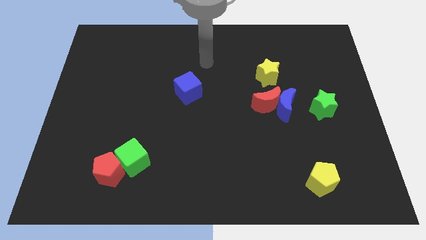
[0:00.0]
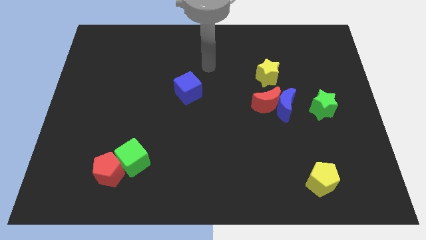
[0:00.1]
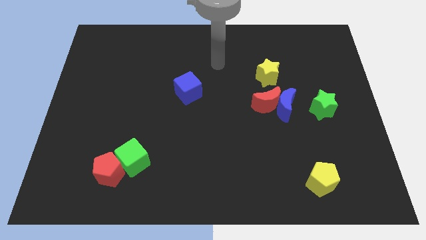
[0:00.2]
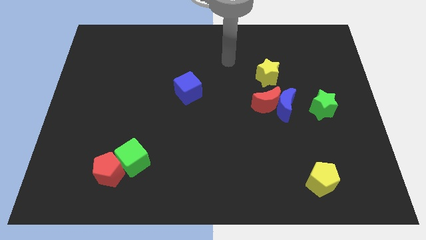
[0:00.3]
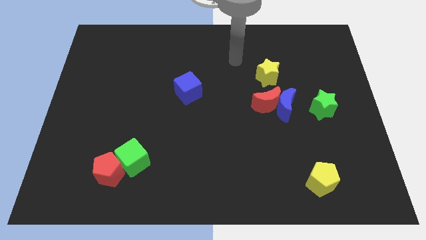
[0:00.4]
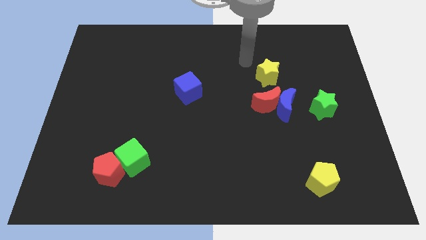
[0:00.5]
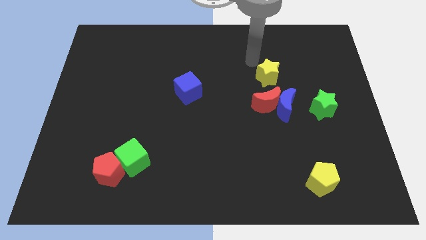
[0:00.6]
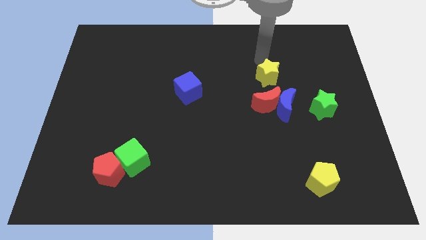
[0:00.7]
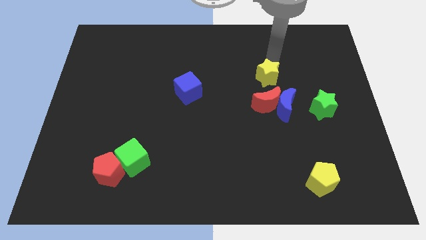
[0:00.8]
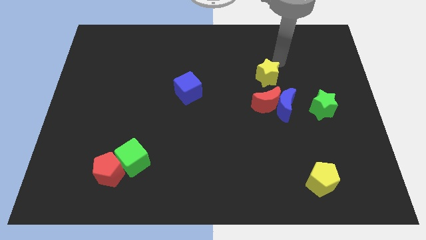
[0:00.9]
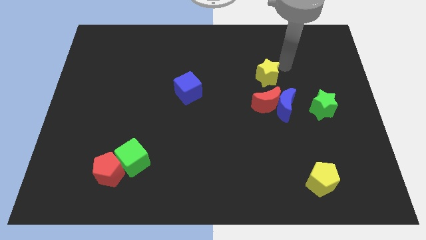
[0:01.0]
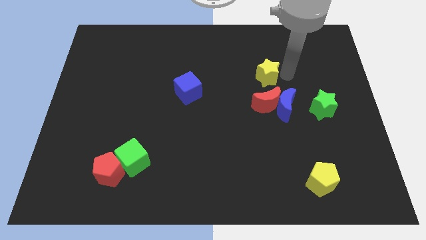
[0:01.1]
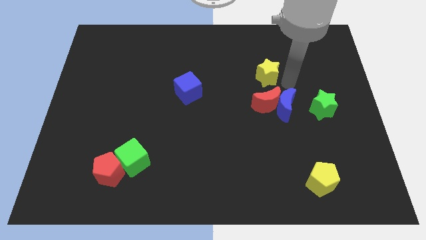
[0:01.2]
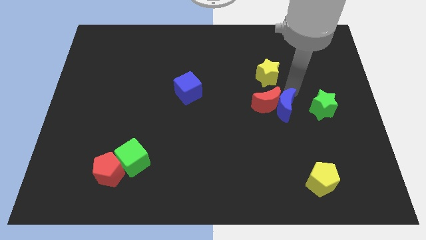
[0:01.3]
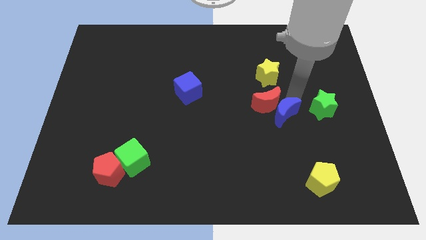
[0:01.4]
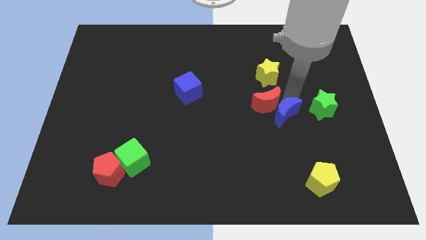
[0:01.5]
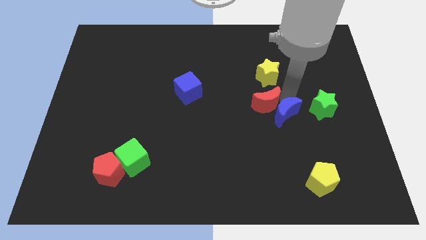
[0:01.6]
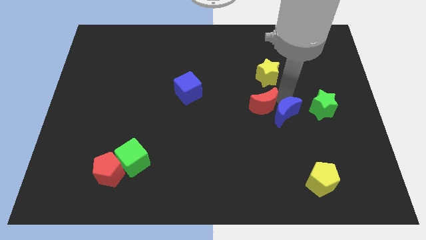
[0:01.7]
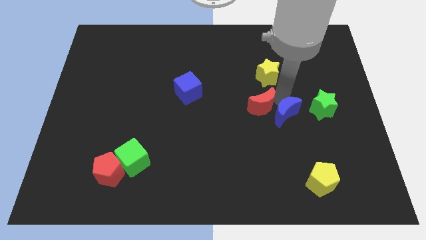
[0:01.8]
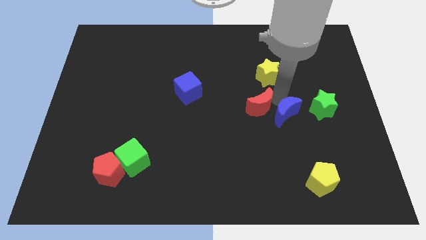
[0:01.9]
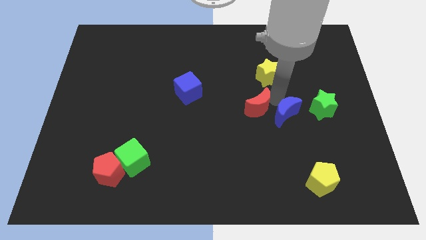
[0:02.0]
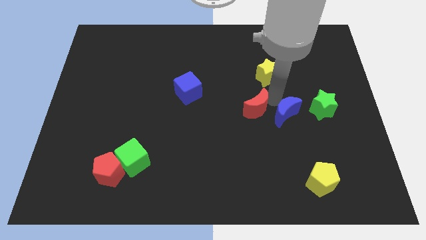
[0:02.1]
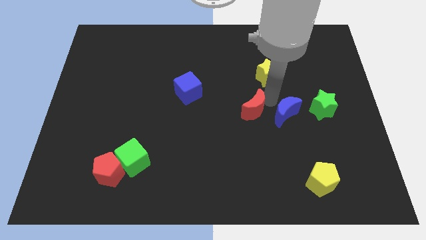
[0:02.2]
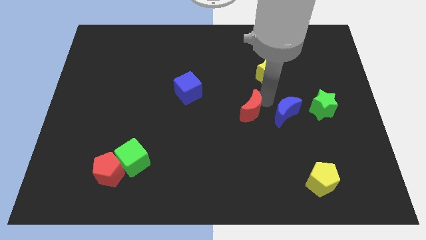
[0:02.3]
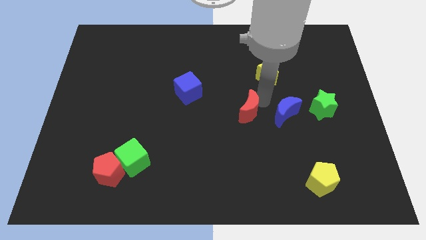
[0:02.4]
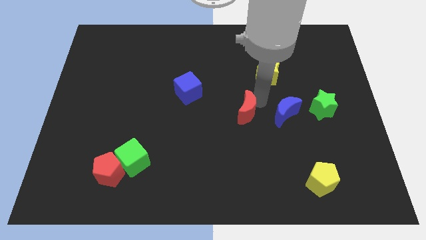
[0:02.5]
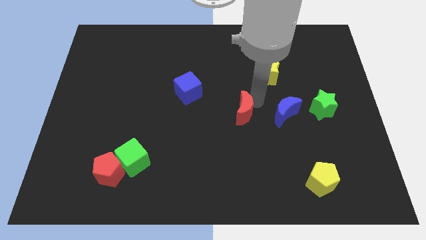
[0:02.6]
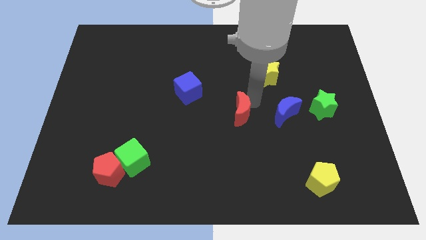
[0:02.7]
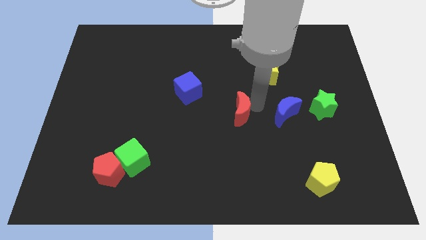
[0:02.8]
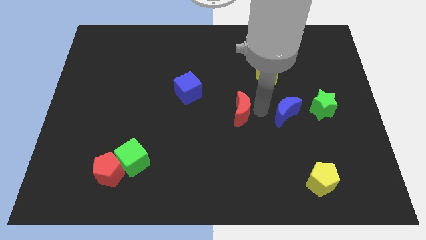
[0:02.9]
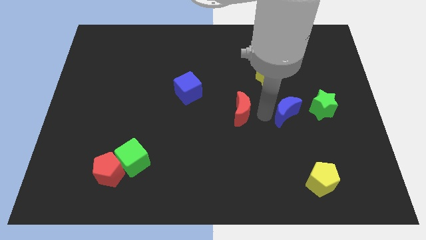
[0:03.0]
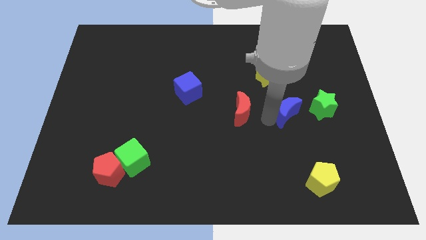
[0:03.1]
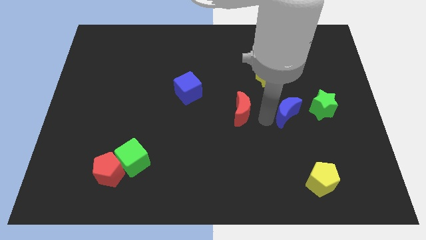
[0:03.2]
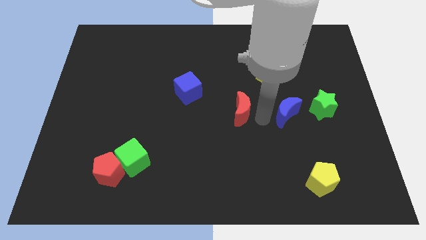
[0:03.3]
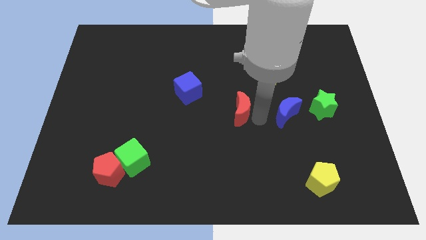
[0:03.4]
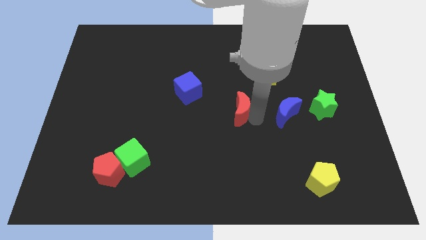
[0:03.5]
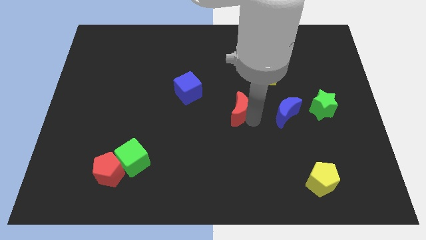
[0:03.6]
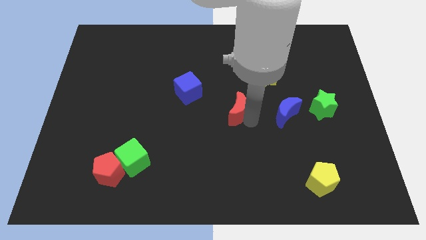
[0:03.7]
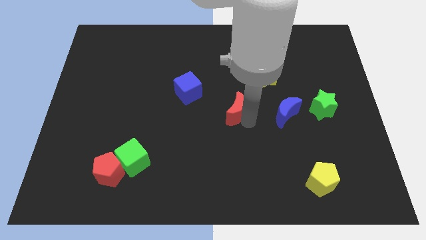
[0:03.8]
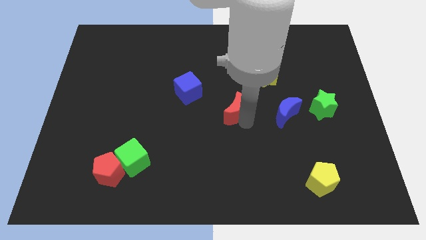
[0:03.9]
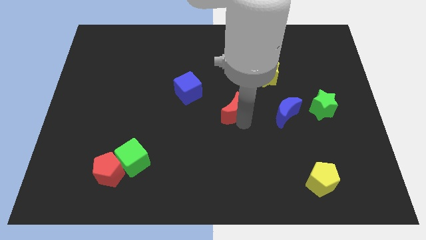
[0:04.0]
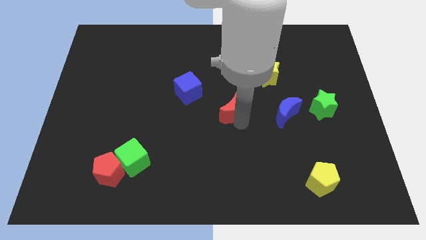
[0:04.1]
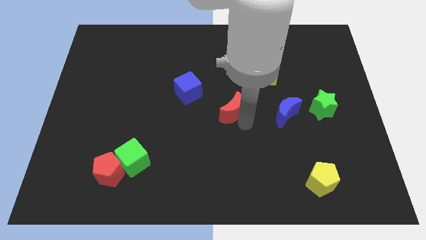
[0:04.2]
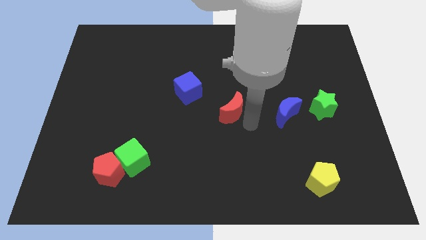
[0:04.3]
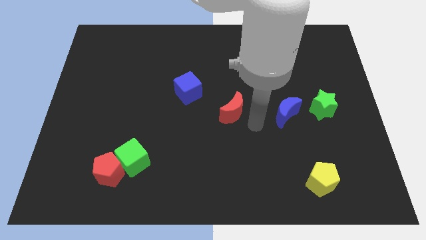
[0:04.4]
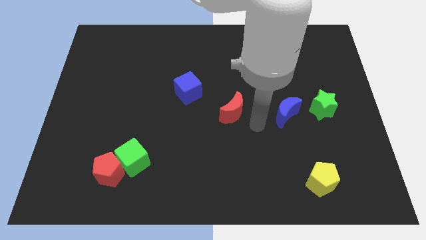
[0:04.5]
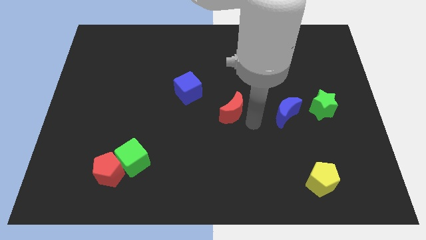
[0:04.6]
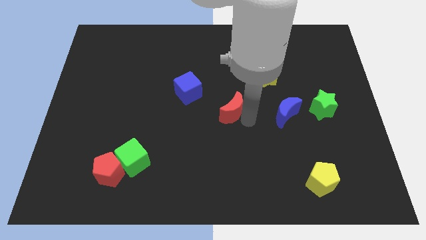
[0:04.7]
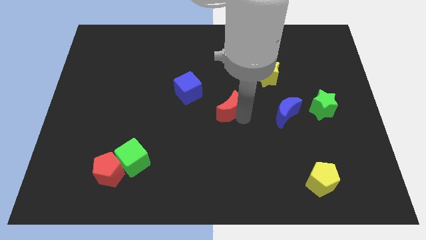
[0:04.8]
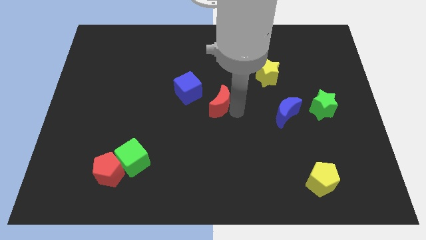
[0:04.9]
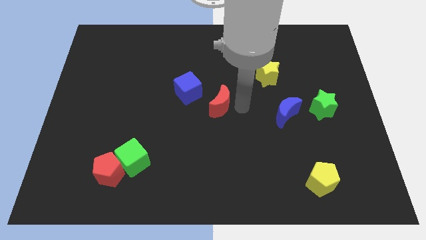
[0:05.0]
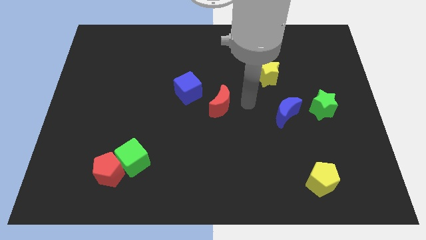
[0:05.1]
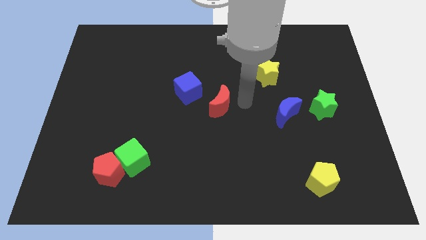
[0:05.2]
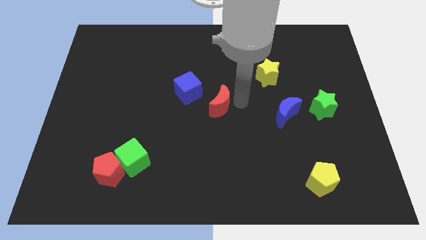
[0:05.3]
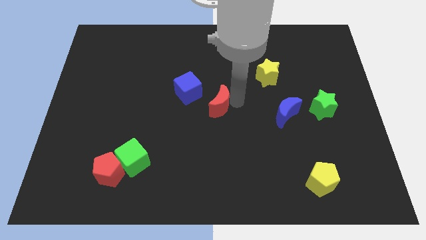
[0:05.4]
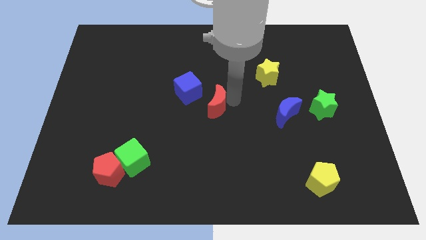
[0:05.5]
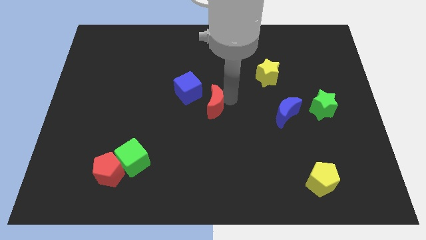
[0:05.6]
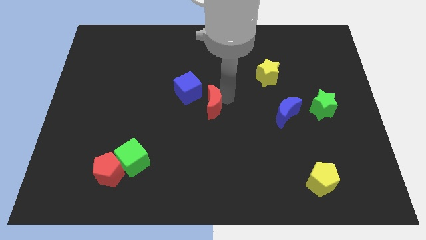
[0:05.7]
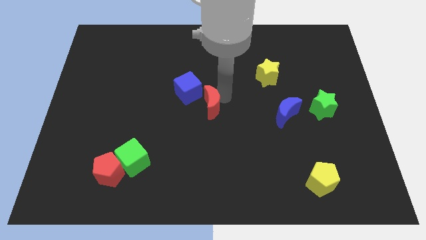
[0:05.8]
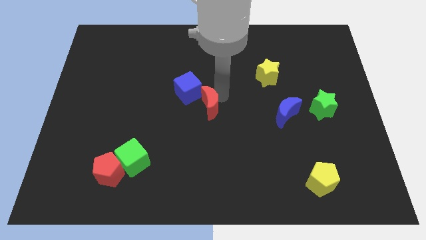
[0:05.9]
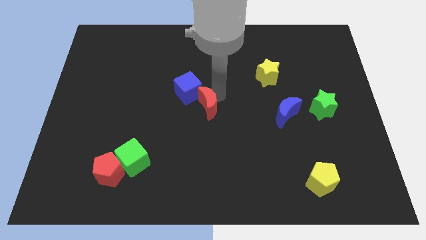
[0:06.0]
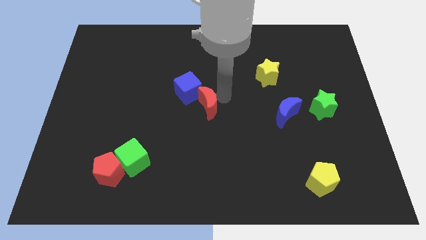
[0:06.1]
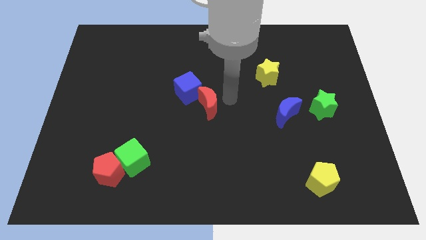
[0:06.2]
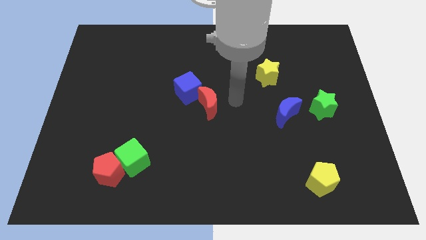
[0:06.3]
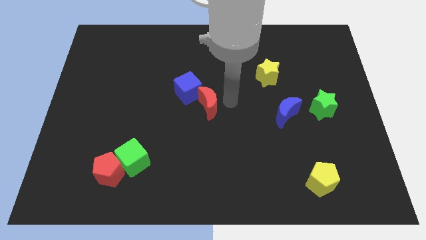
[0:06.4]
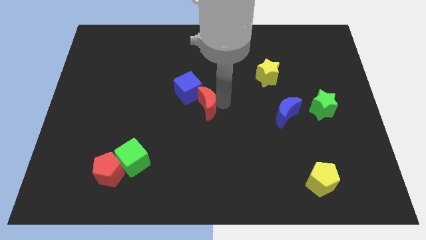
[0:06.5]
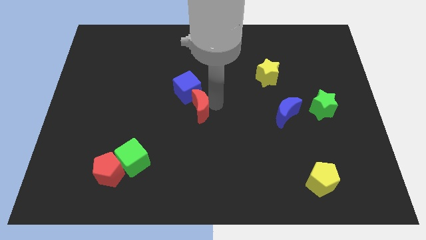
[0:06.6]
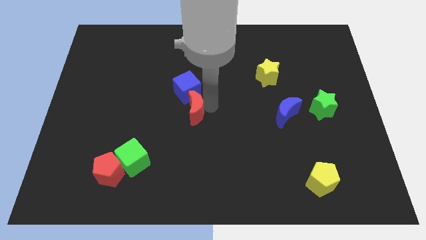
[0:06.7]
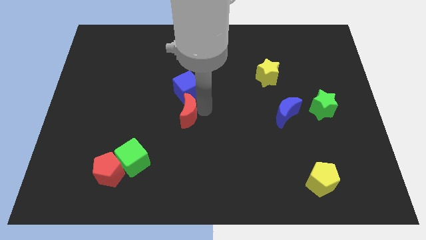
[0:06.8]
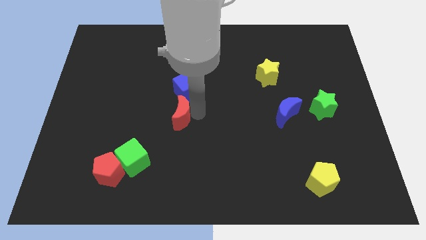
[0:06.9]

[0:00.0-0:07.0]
push the red moon to the bottom left side of the blue cube
